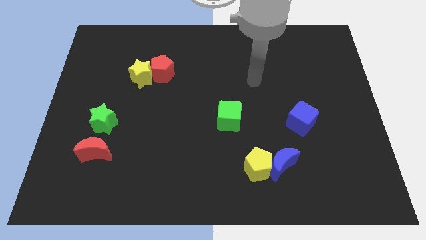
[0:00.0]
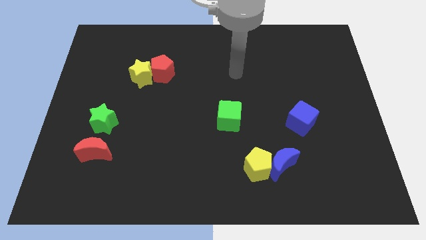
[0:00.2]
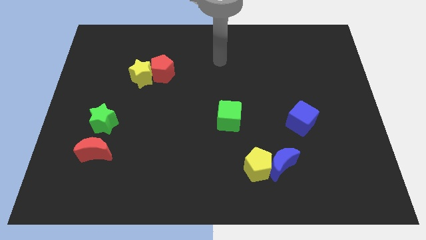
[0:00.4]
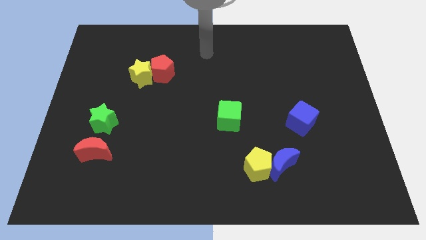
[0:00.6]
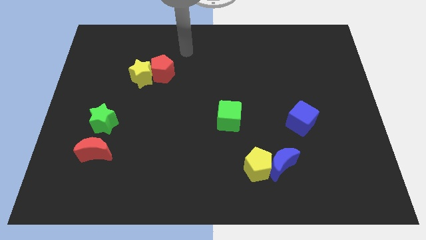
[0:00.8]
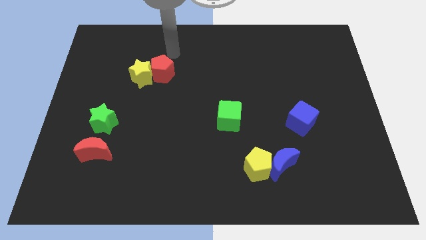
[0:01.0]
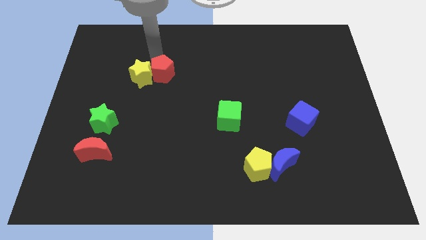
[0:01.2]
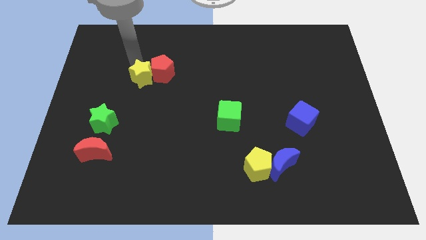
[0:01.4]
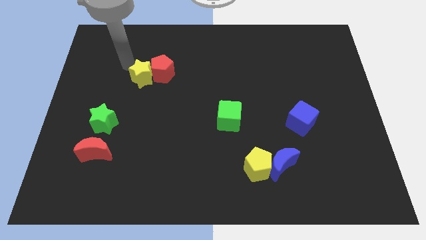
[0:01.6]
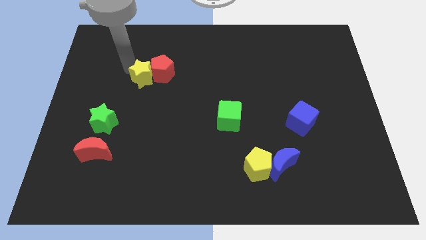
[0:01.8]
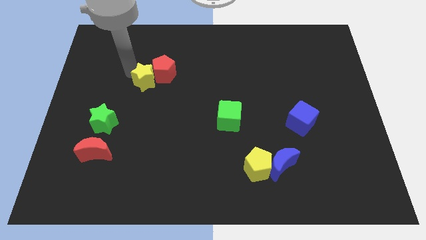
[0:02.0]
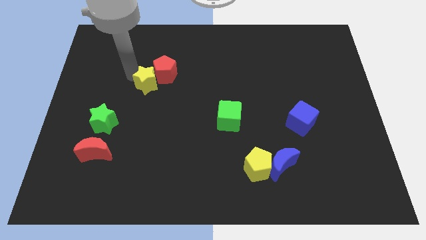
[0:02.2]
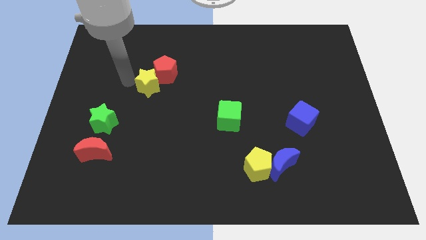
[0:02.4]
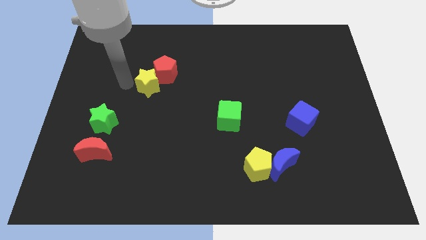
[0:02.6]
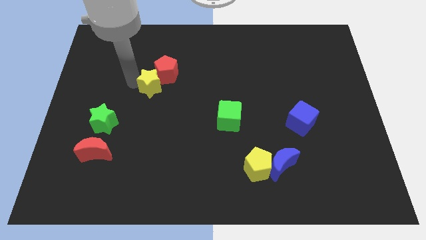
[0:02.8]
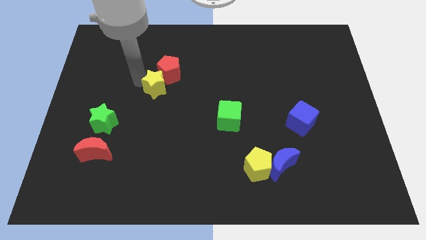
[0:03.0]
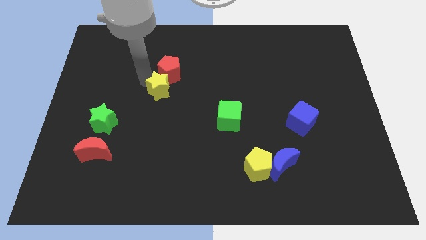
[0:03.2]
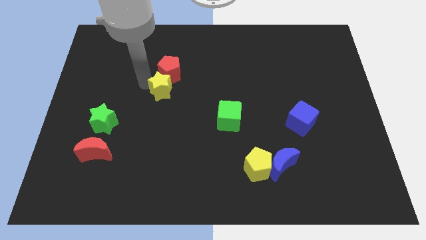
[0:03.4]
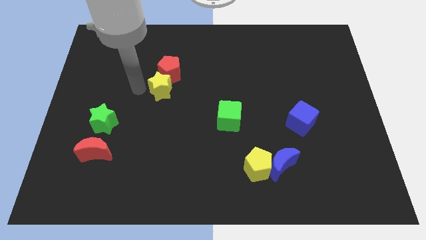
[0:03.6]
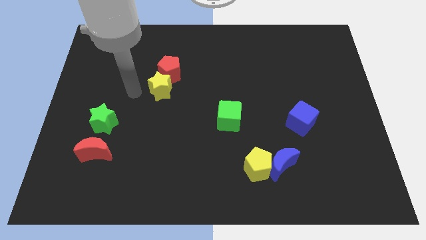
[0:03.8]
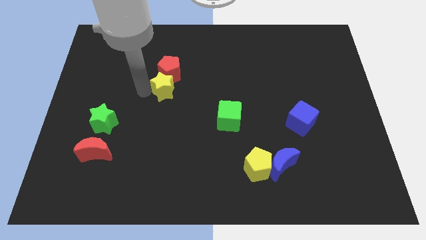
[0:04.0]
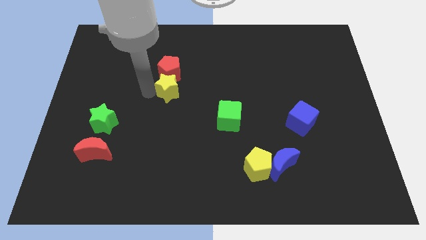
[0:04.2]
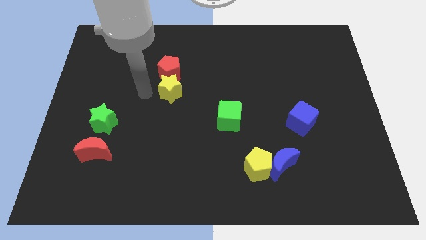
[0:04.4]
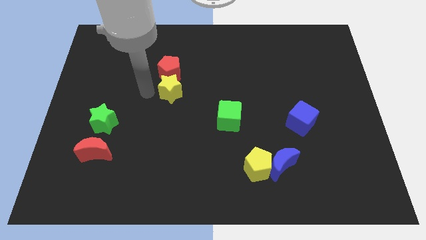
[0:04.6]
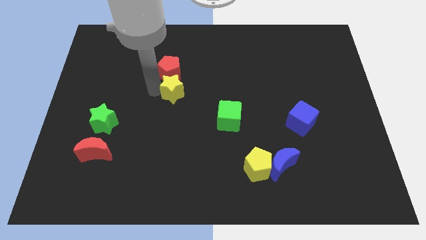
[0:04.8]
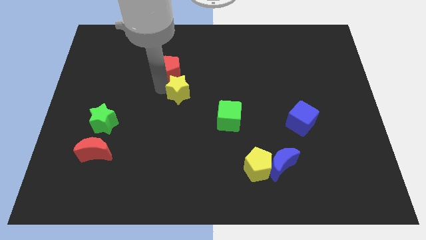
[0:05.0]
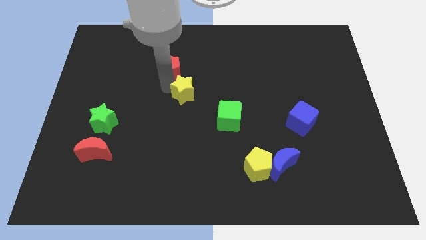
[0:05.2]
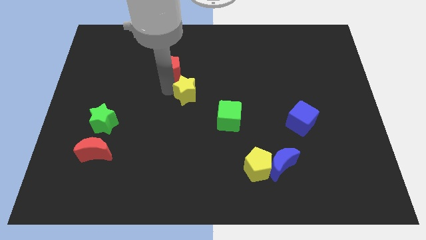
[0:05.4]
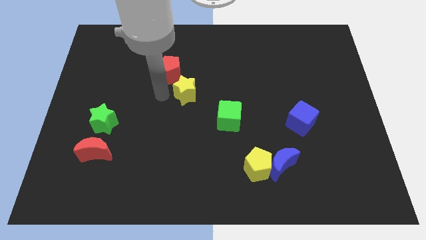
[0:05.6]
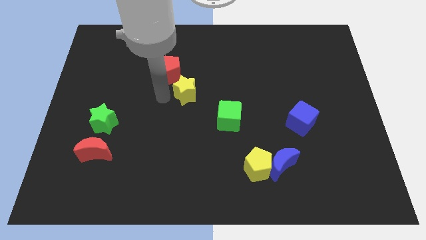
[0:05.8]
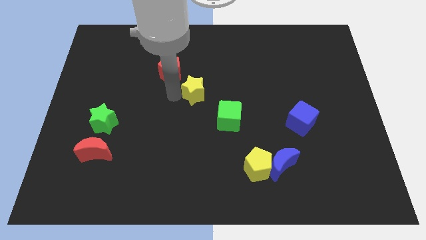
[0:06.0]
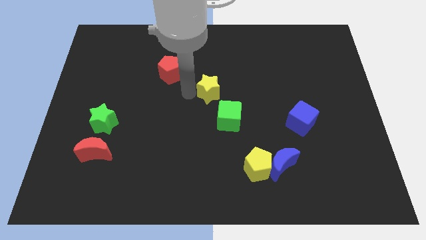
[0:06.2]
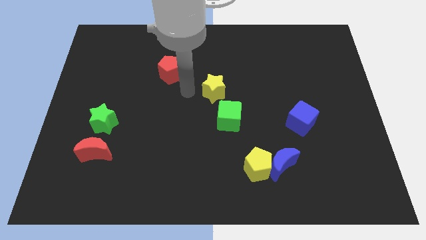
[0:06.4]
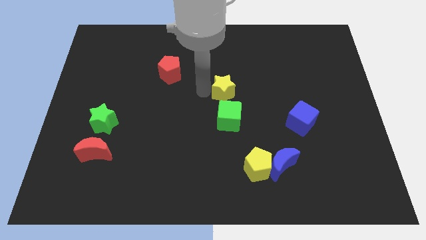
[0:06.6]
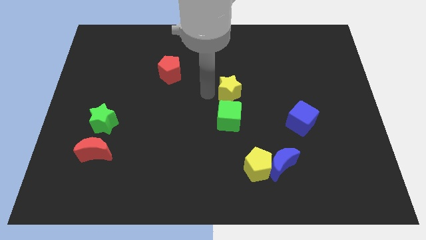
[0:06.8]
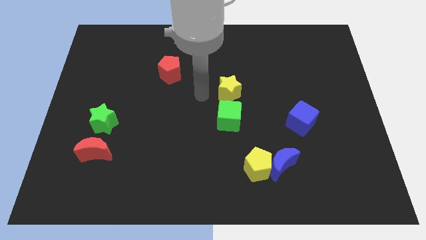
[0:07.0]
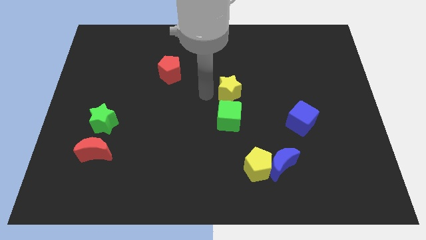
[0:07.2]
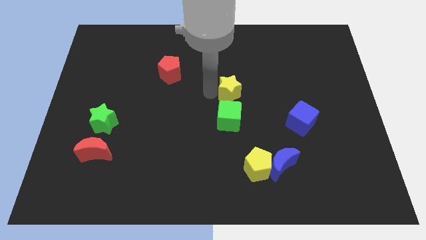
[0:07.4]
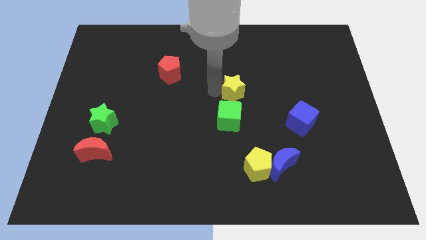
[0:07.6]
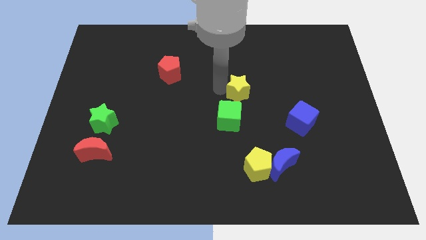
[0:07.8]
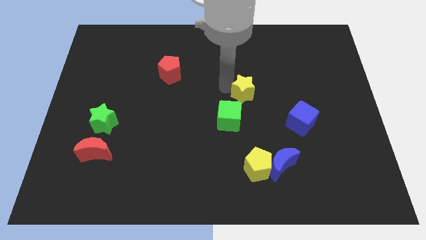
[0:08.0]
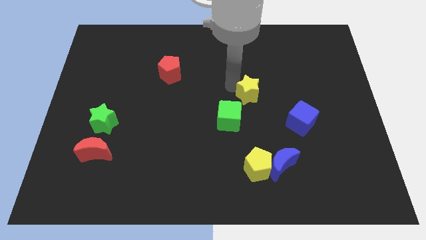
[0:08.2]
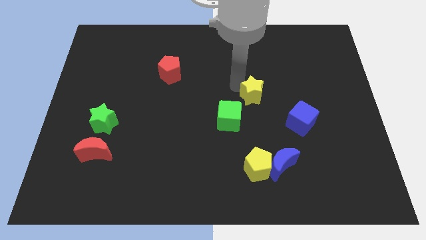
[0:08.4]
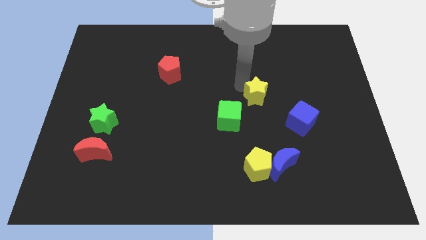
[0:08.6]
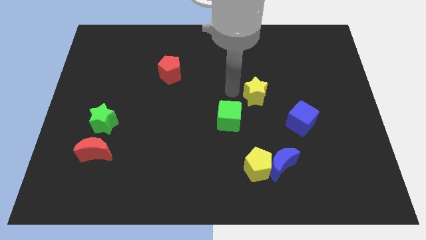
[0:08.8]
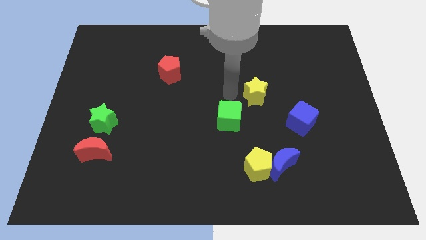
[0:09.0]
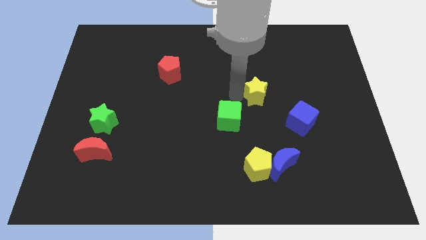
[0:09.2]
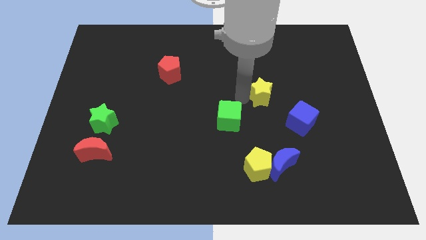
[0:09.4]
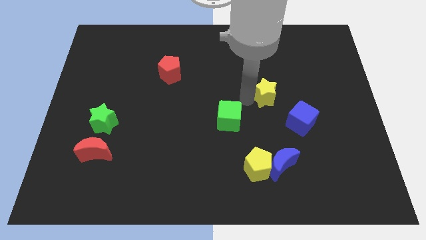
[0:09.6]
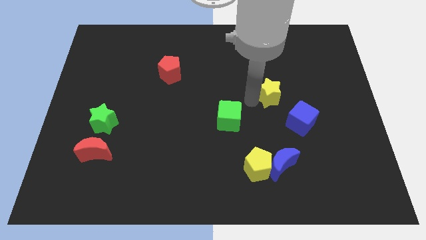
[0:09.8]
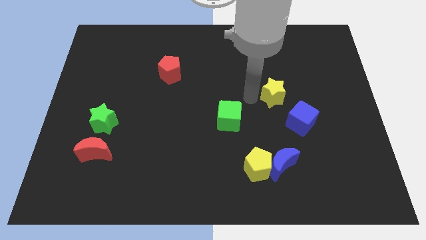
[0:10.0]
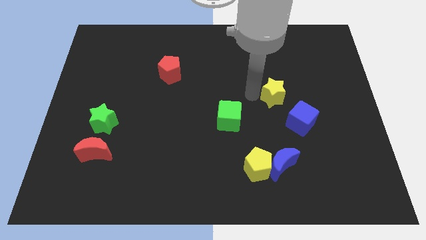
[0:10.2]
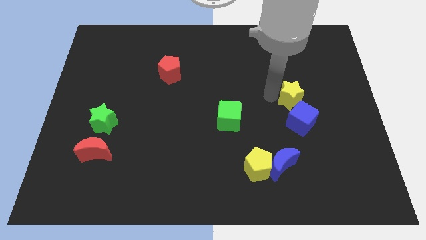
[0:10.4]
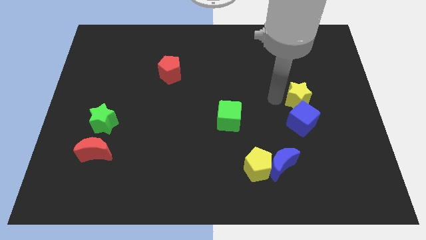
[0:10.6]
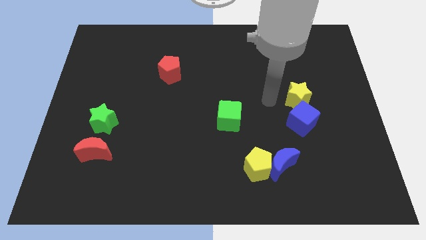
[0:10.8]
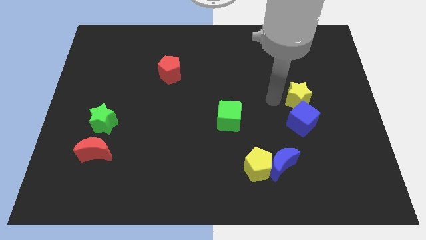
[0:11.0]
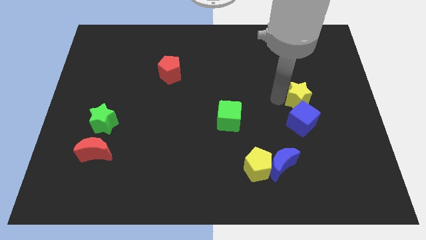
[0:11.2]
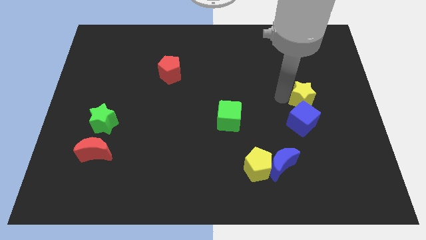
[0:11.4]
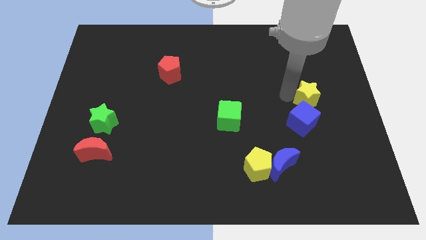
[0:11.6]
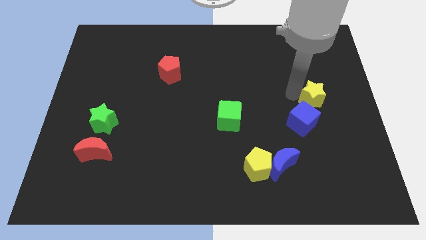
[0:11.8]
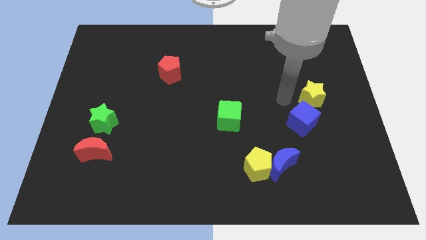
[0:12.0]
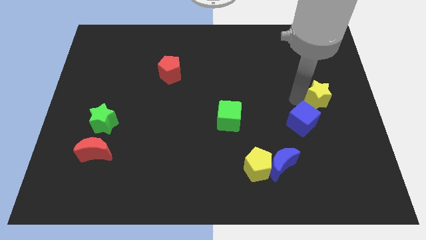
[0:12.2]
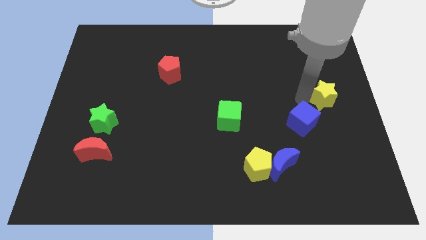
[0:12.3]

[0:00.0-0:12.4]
put the yellow star to the right side
